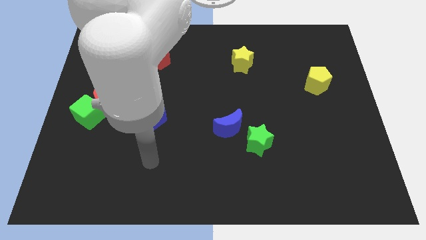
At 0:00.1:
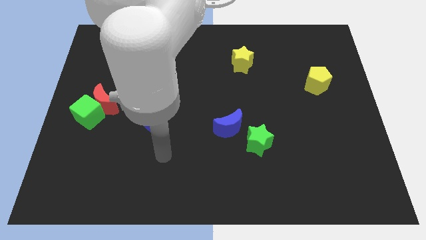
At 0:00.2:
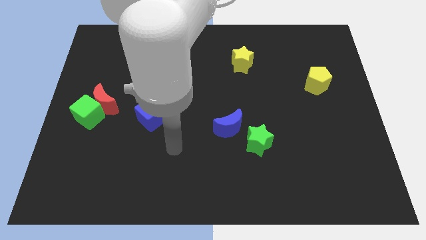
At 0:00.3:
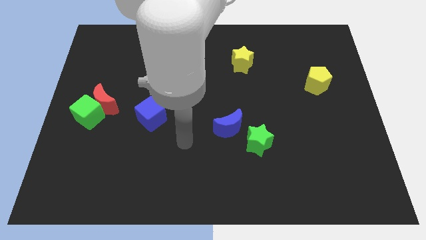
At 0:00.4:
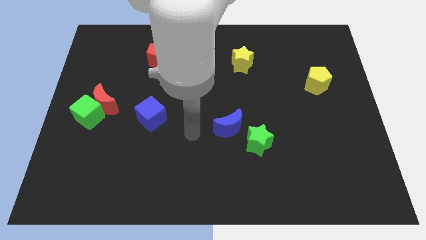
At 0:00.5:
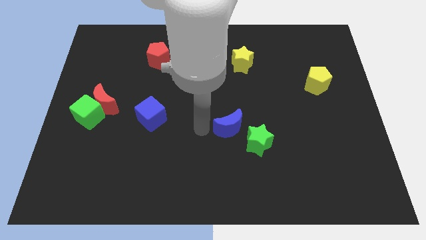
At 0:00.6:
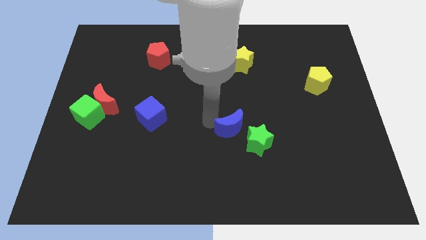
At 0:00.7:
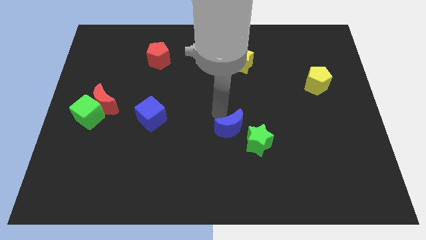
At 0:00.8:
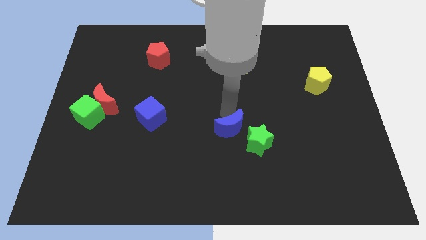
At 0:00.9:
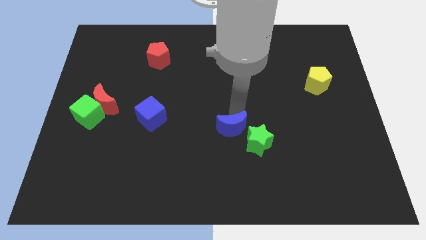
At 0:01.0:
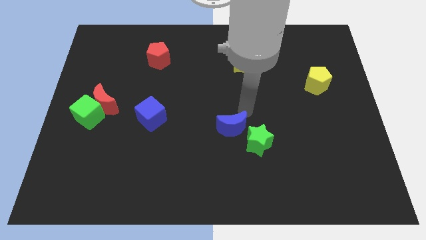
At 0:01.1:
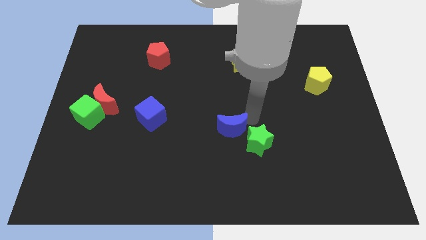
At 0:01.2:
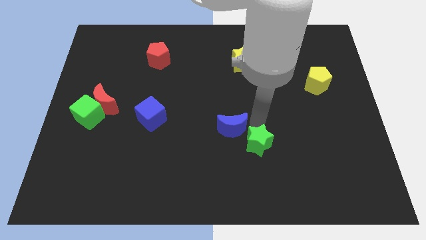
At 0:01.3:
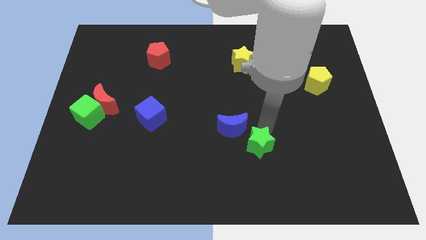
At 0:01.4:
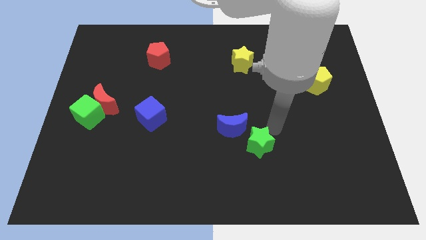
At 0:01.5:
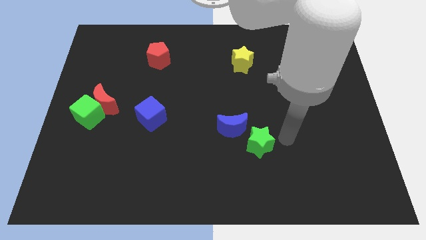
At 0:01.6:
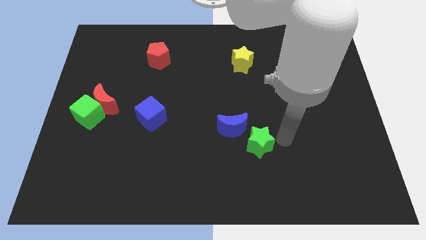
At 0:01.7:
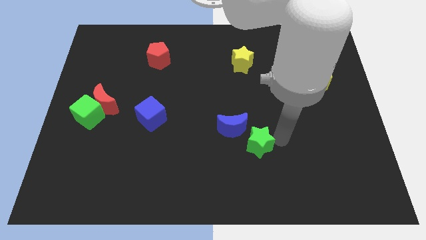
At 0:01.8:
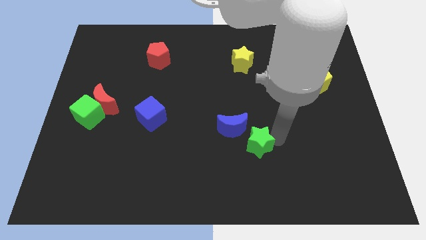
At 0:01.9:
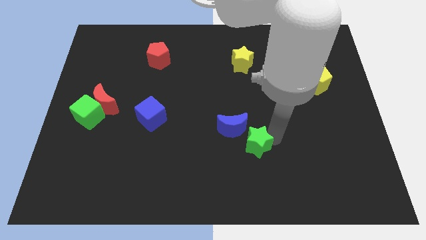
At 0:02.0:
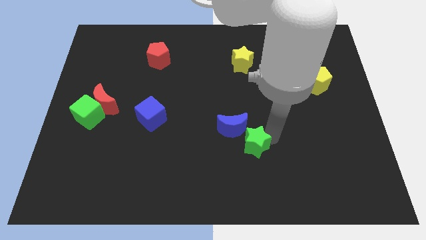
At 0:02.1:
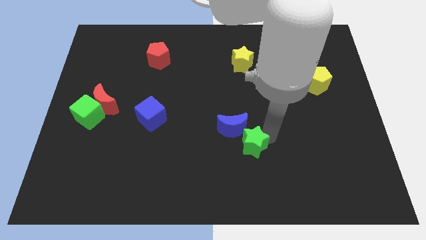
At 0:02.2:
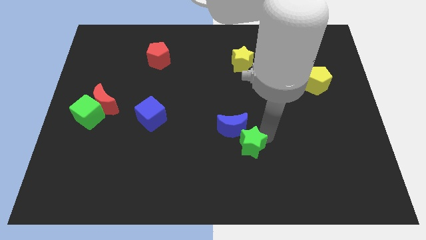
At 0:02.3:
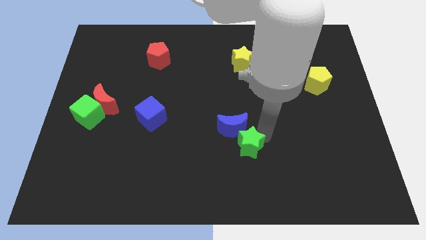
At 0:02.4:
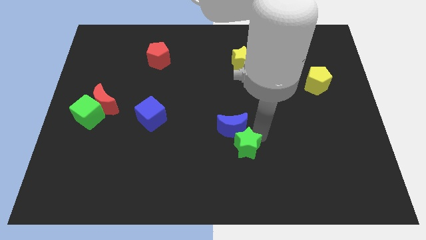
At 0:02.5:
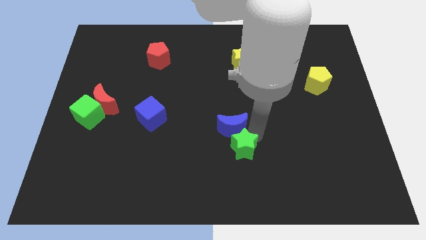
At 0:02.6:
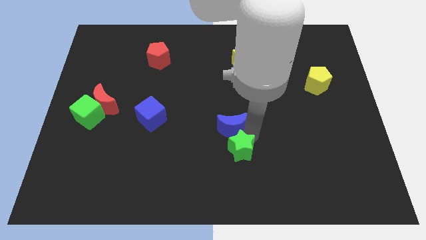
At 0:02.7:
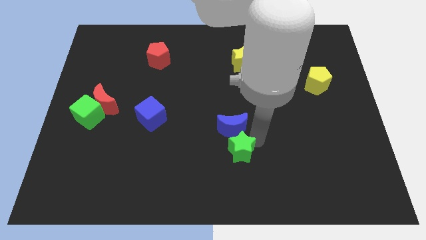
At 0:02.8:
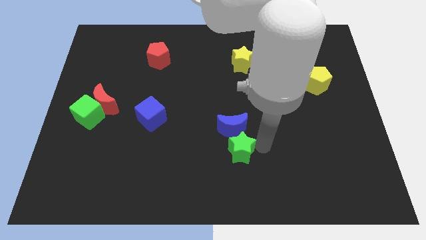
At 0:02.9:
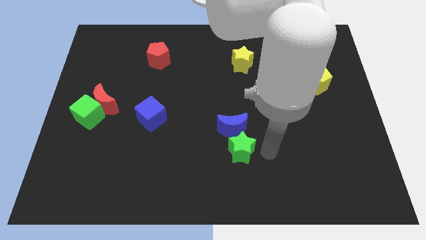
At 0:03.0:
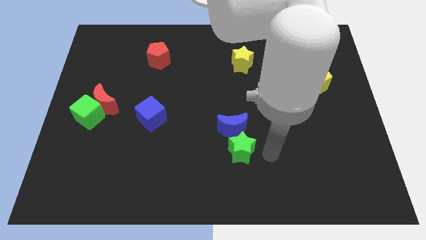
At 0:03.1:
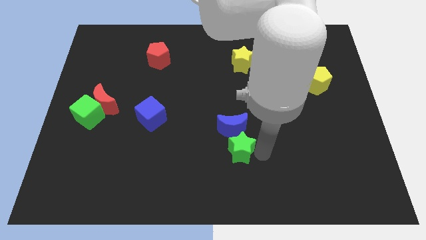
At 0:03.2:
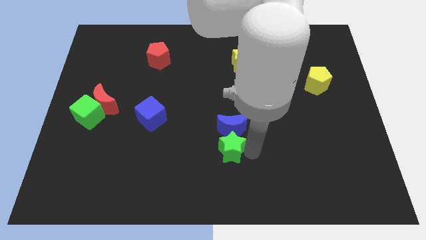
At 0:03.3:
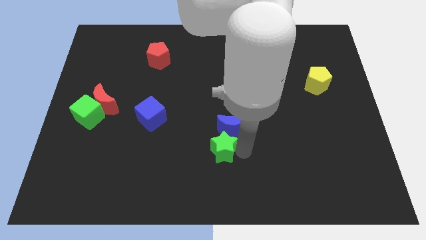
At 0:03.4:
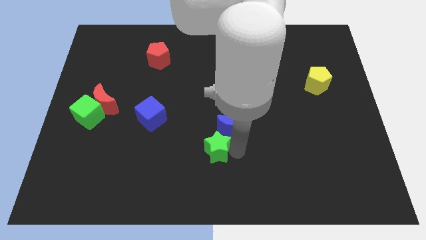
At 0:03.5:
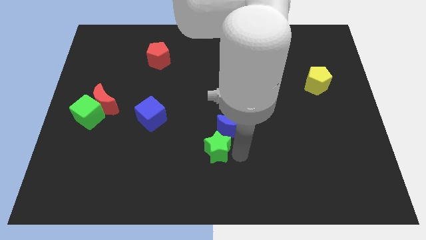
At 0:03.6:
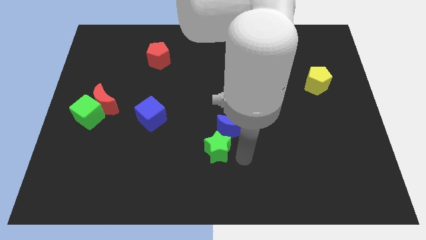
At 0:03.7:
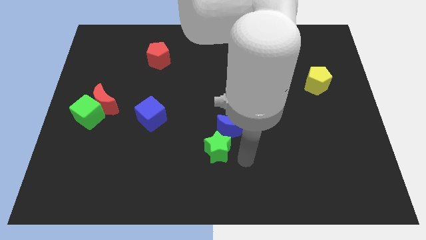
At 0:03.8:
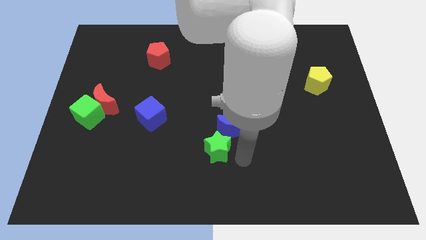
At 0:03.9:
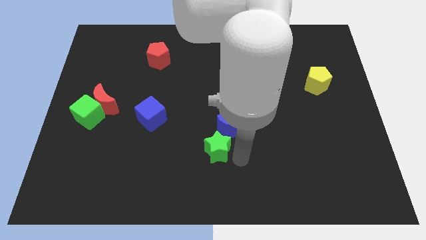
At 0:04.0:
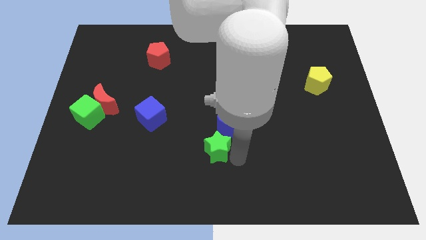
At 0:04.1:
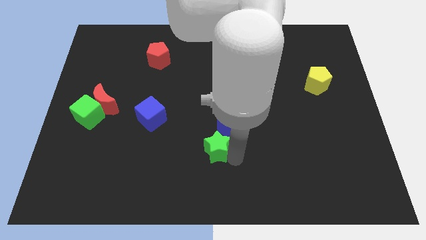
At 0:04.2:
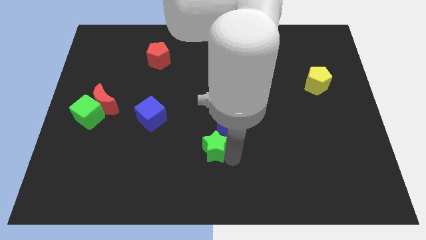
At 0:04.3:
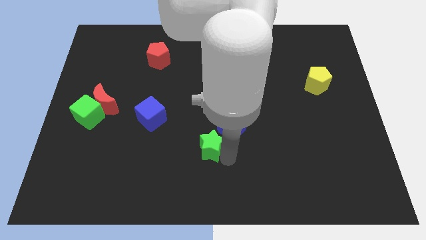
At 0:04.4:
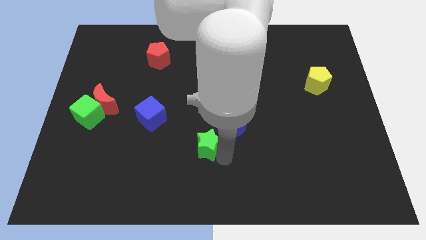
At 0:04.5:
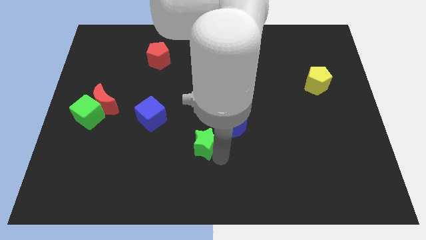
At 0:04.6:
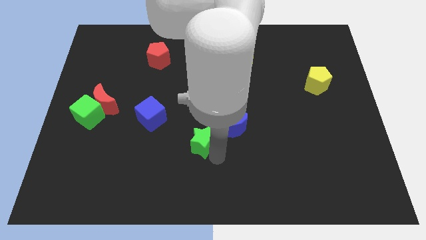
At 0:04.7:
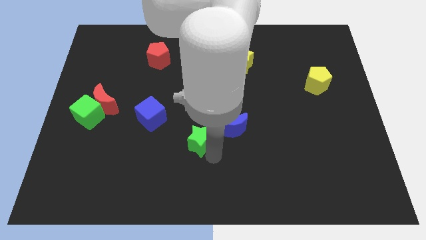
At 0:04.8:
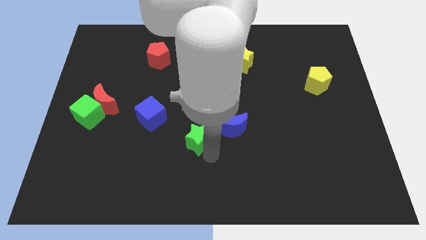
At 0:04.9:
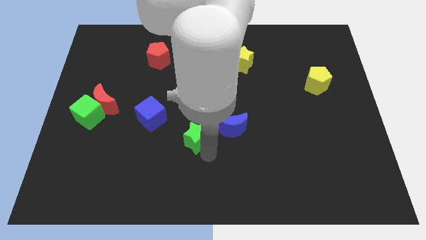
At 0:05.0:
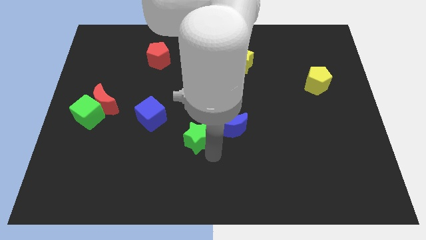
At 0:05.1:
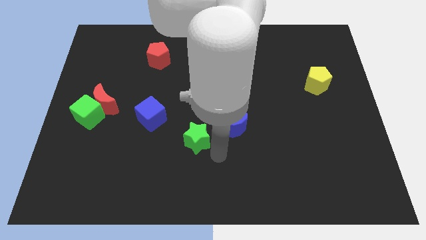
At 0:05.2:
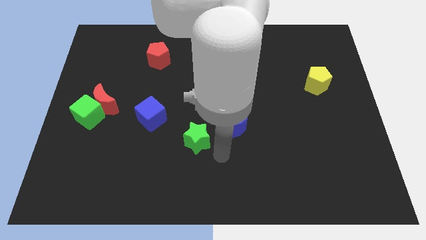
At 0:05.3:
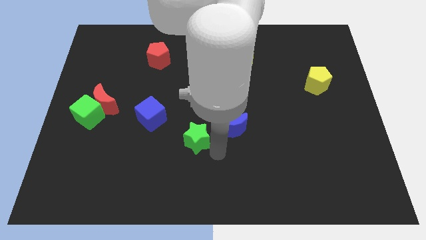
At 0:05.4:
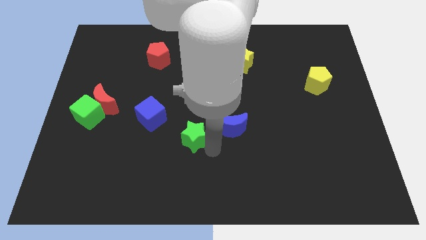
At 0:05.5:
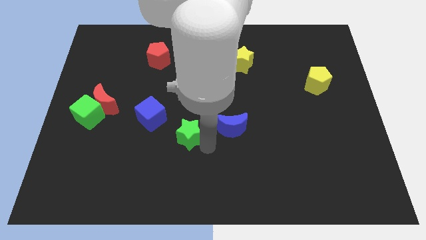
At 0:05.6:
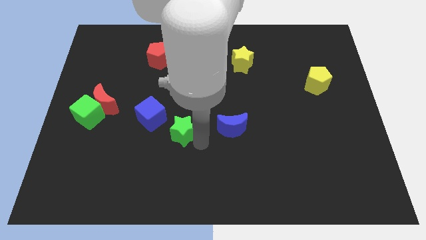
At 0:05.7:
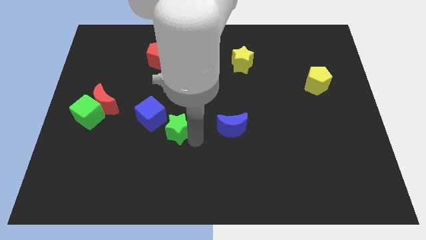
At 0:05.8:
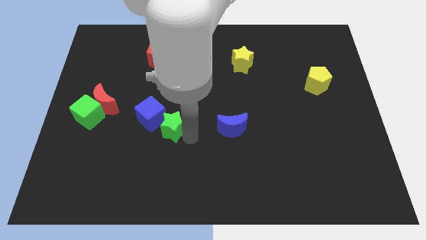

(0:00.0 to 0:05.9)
push the green star close to the blue cube
